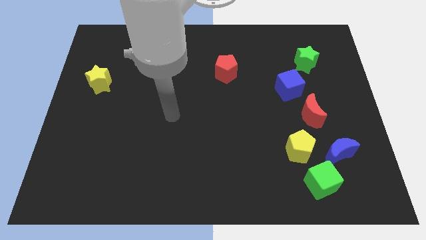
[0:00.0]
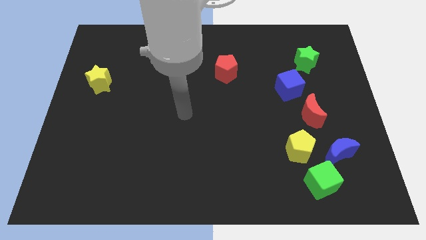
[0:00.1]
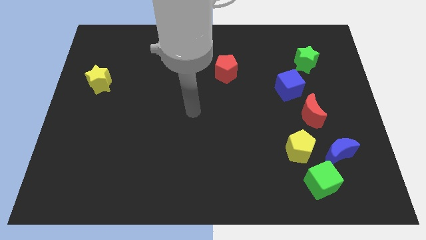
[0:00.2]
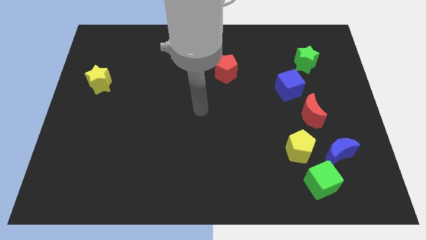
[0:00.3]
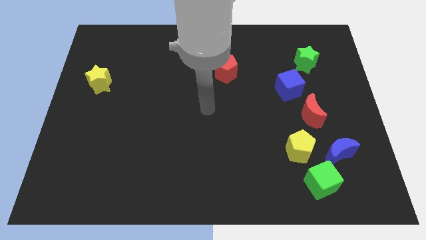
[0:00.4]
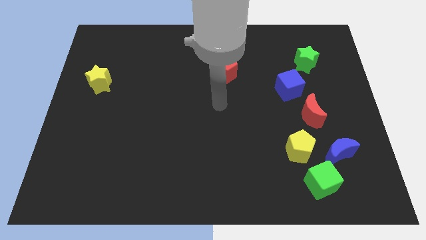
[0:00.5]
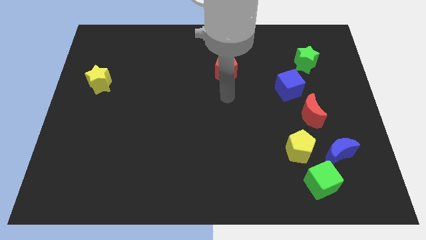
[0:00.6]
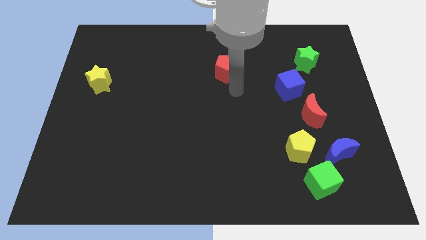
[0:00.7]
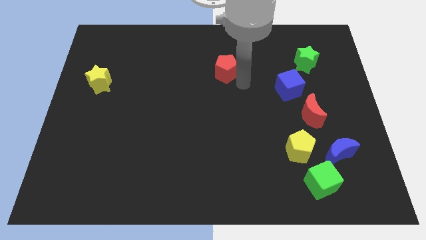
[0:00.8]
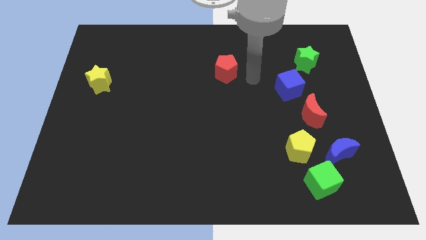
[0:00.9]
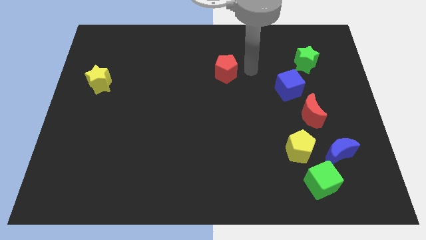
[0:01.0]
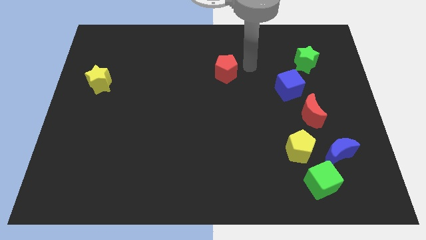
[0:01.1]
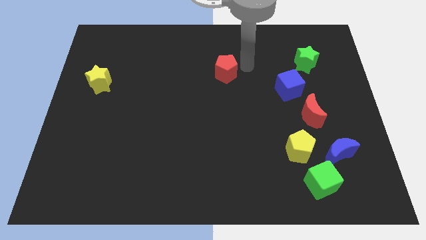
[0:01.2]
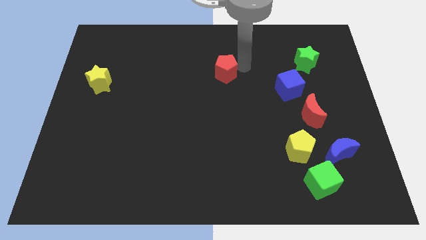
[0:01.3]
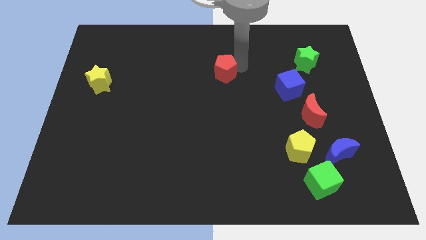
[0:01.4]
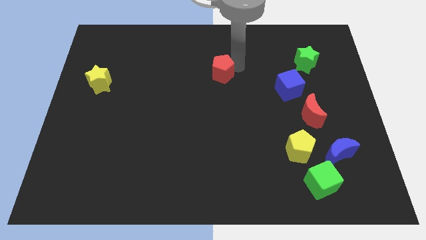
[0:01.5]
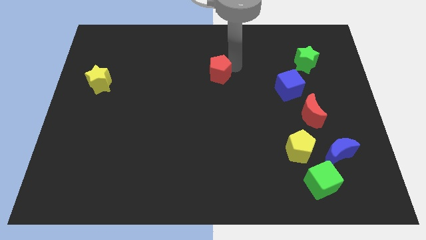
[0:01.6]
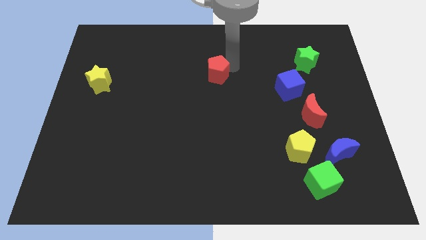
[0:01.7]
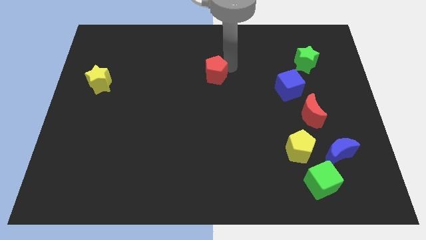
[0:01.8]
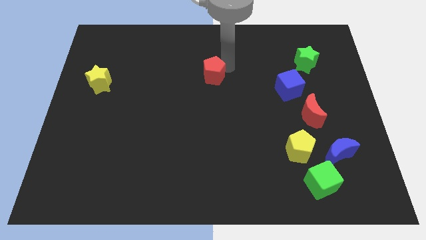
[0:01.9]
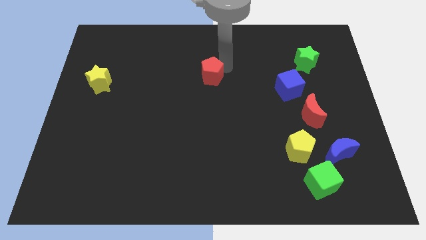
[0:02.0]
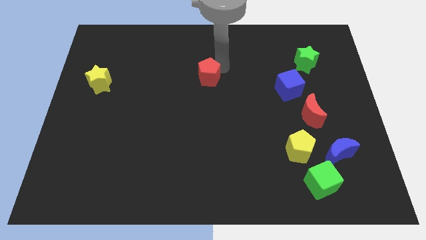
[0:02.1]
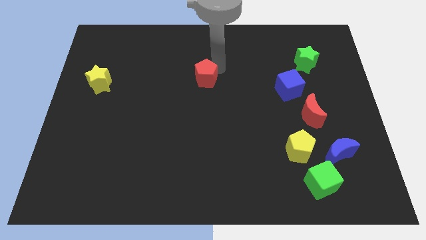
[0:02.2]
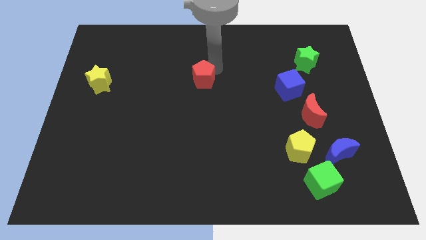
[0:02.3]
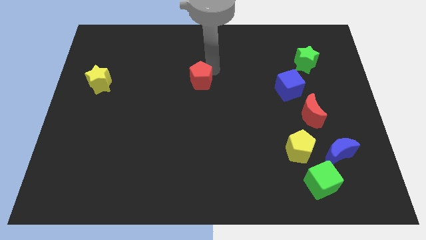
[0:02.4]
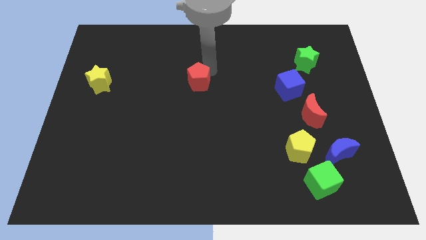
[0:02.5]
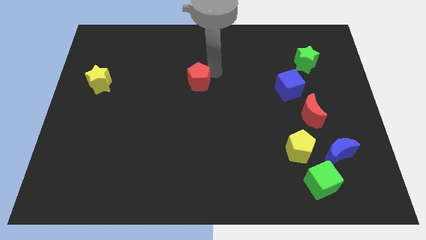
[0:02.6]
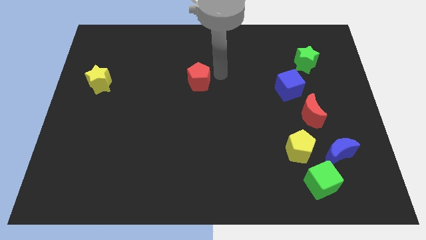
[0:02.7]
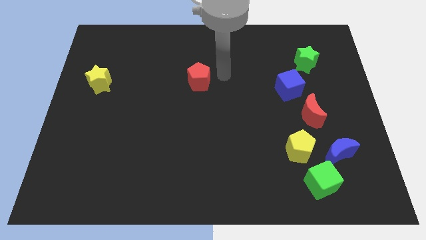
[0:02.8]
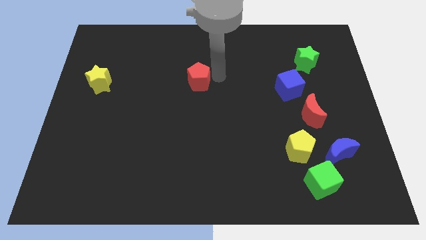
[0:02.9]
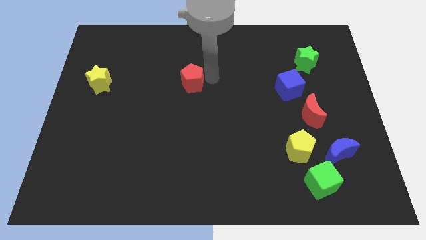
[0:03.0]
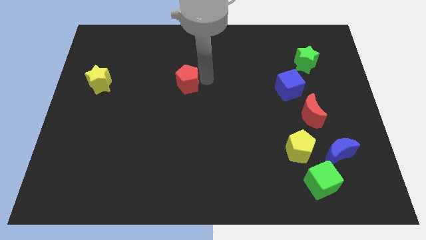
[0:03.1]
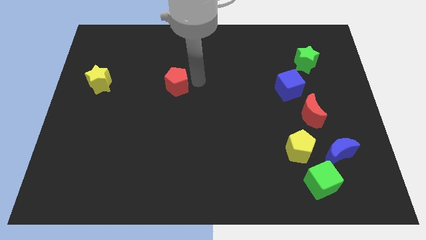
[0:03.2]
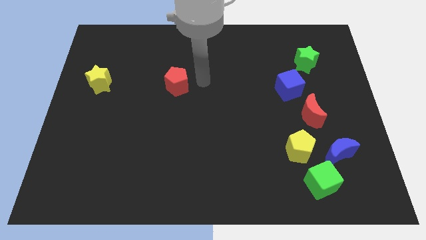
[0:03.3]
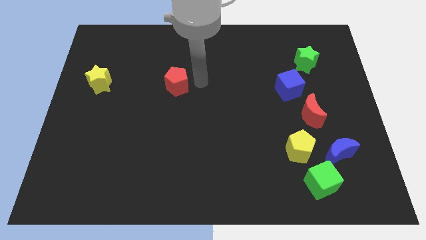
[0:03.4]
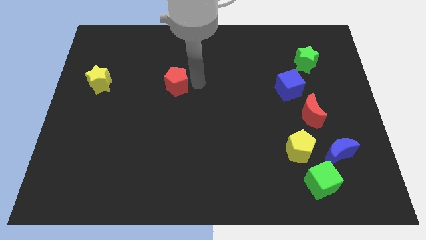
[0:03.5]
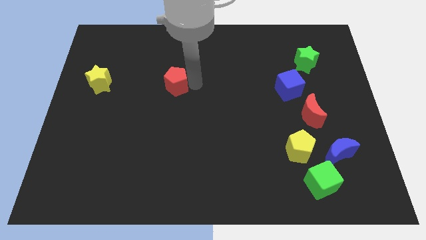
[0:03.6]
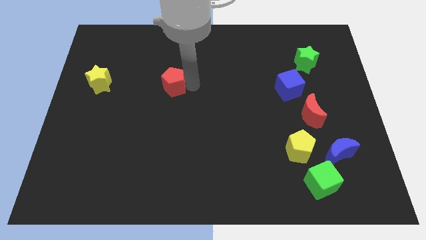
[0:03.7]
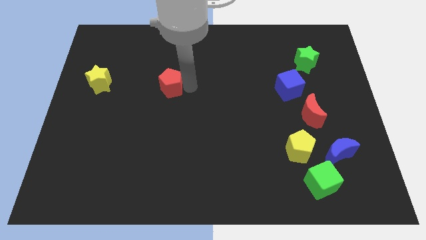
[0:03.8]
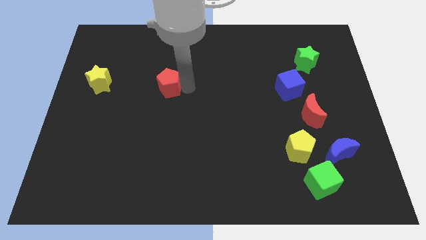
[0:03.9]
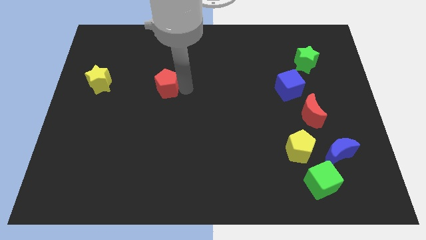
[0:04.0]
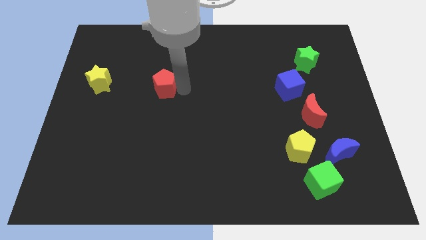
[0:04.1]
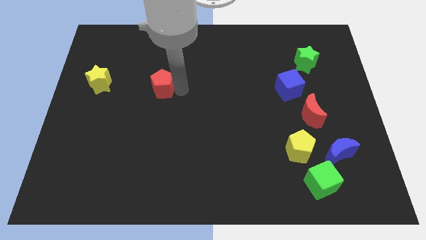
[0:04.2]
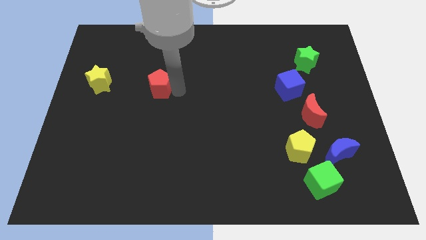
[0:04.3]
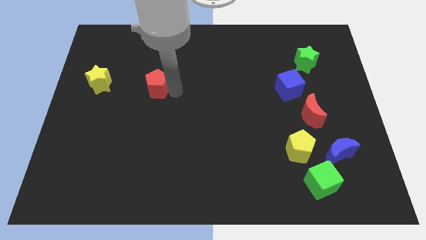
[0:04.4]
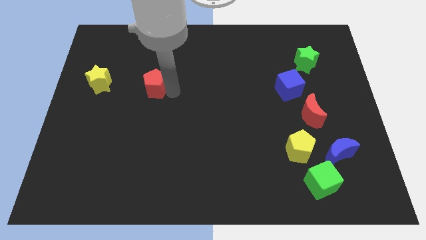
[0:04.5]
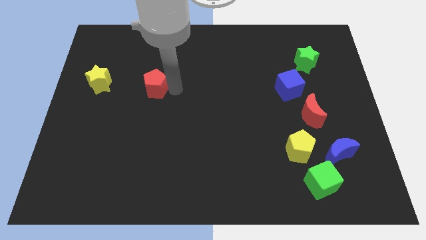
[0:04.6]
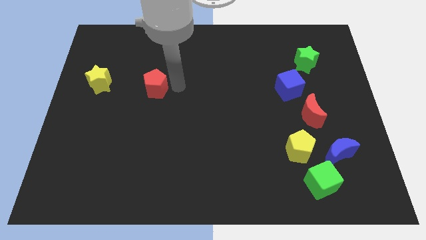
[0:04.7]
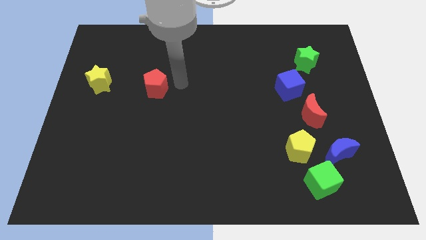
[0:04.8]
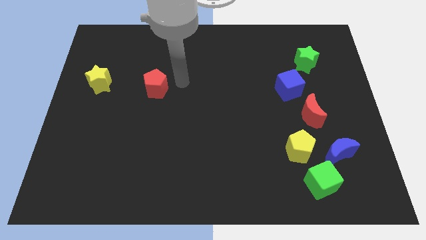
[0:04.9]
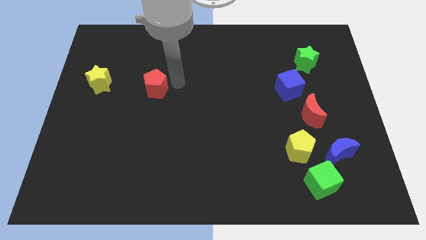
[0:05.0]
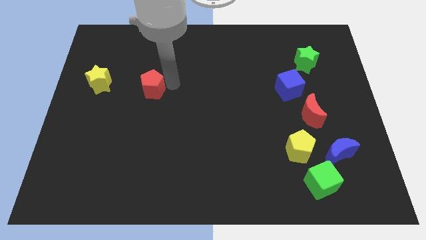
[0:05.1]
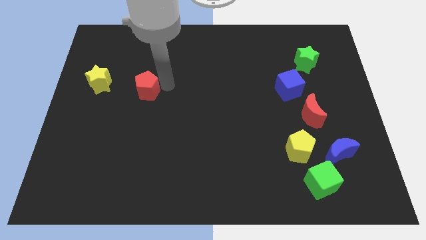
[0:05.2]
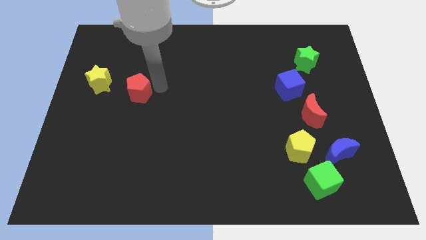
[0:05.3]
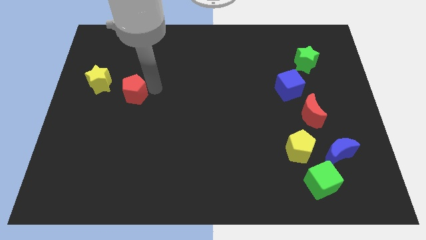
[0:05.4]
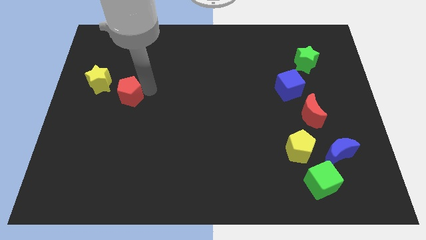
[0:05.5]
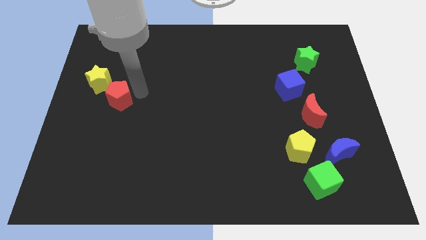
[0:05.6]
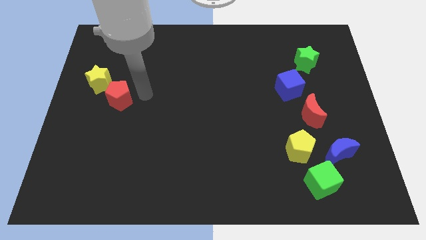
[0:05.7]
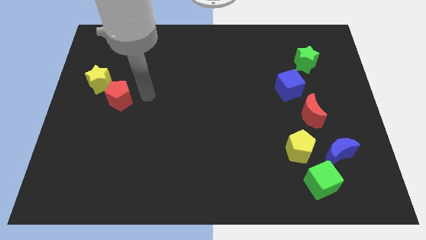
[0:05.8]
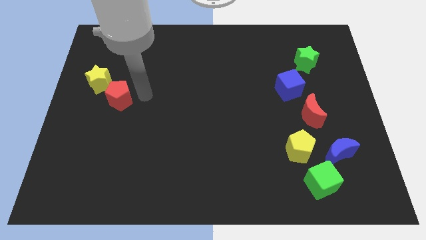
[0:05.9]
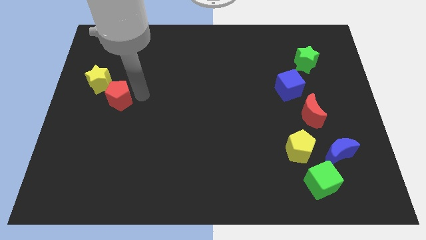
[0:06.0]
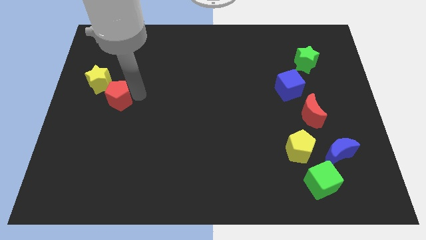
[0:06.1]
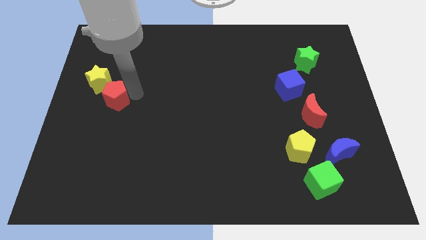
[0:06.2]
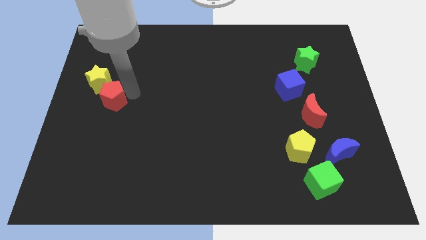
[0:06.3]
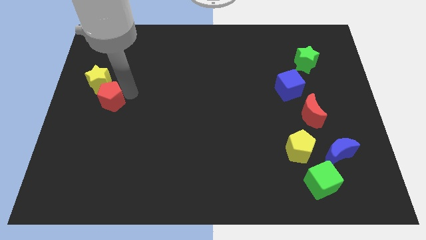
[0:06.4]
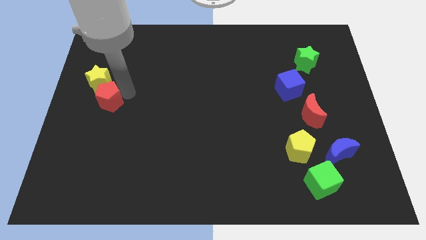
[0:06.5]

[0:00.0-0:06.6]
move the red pentagon to the left side
